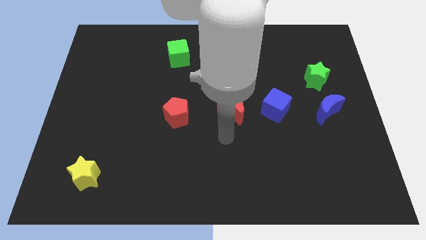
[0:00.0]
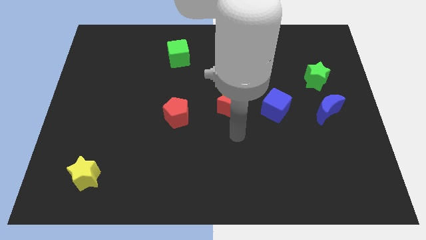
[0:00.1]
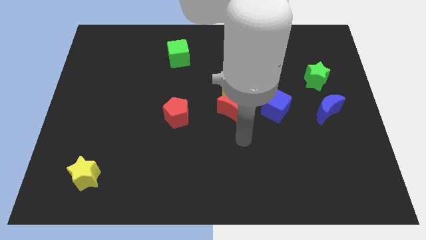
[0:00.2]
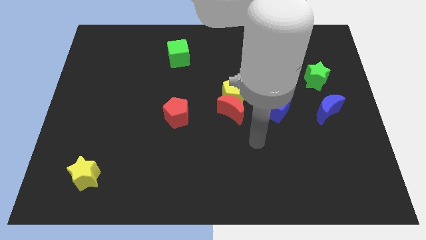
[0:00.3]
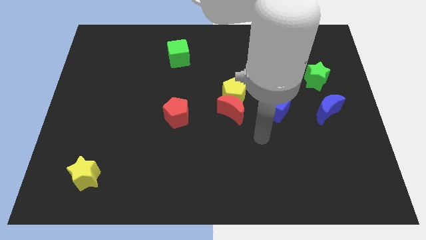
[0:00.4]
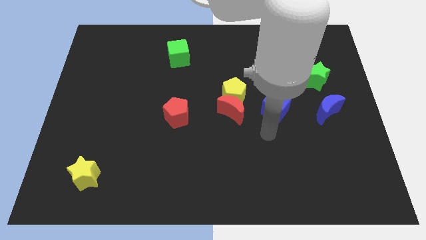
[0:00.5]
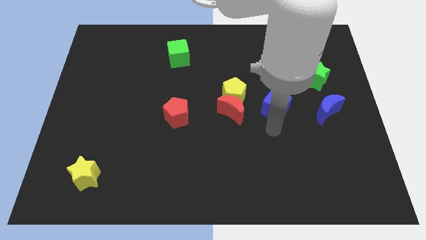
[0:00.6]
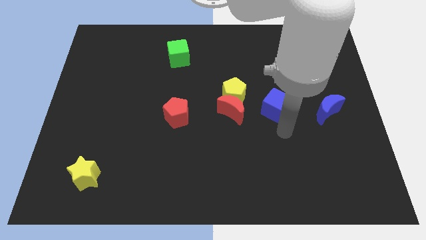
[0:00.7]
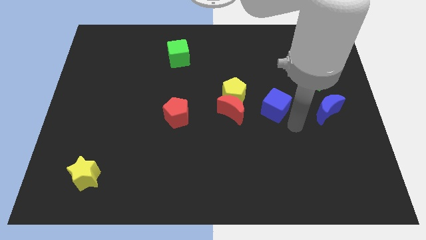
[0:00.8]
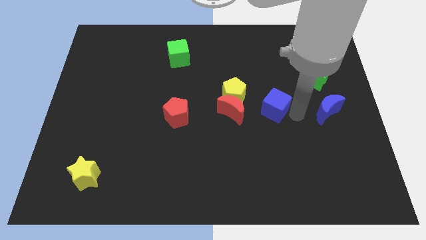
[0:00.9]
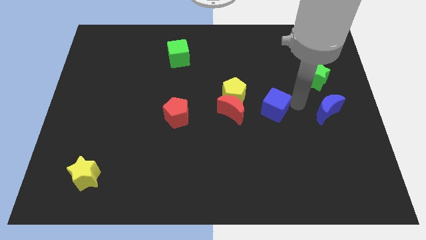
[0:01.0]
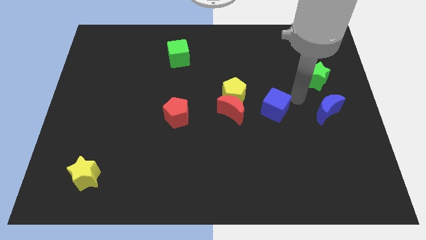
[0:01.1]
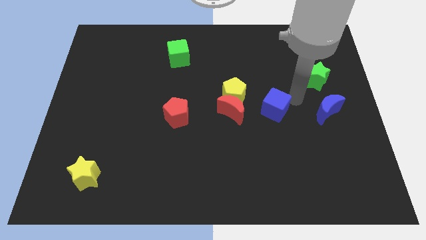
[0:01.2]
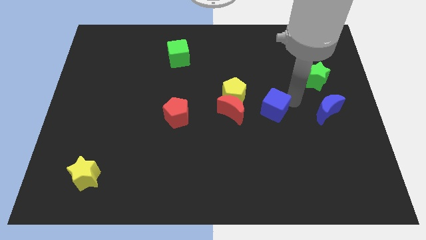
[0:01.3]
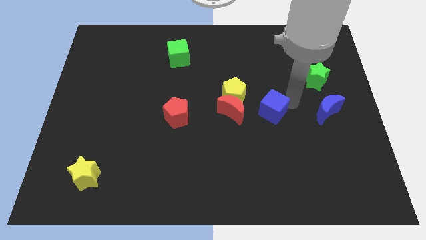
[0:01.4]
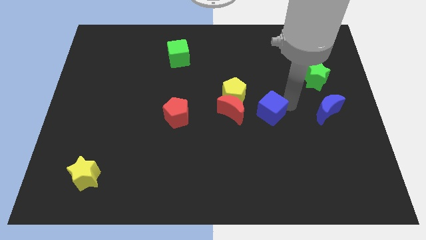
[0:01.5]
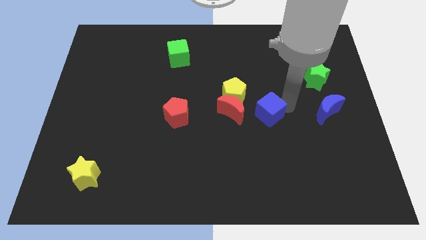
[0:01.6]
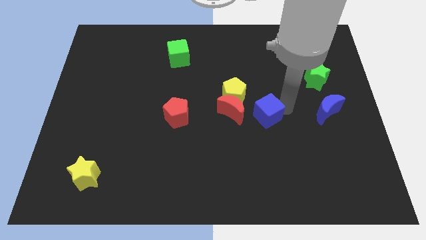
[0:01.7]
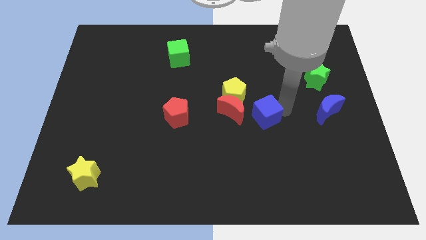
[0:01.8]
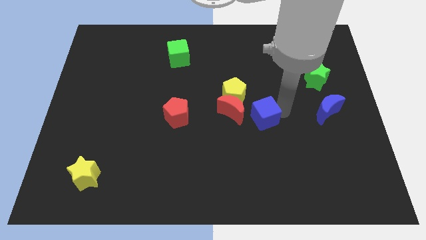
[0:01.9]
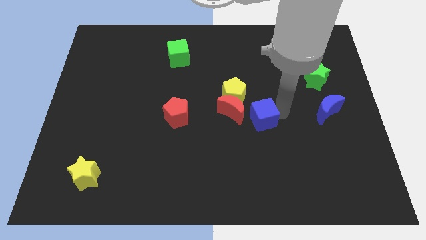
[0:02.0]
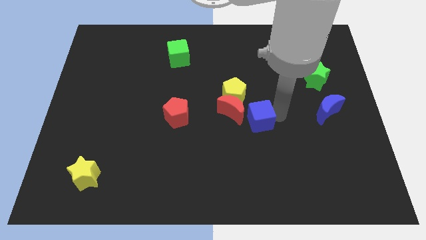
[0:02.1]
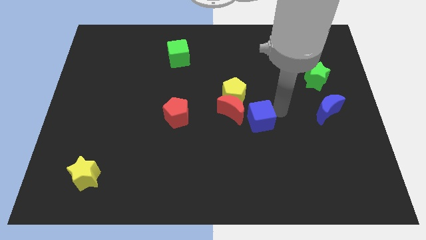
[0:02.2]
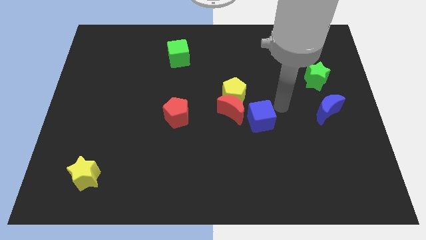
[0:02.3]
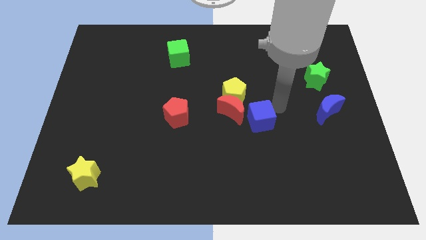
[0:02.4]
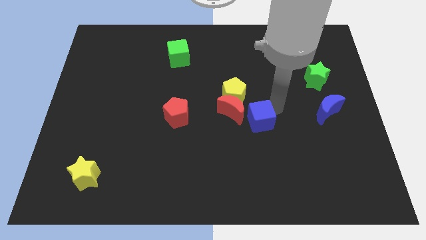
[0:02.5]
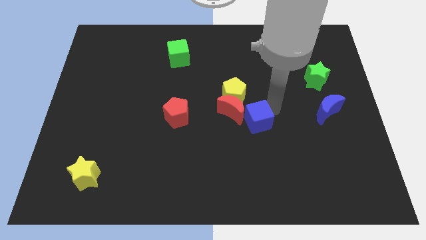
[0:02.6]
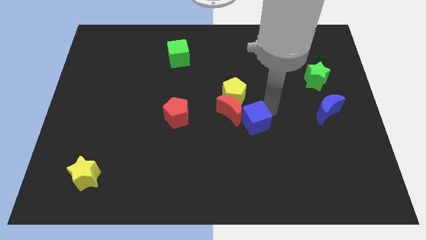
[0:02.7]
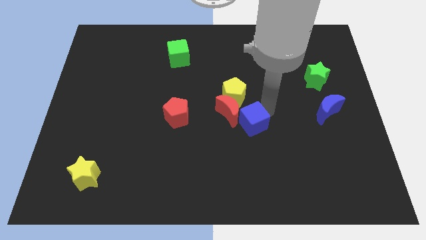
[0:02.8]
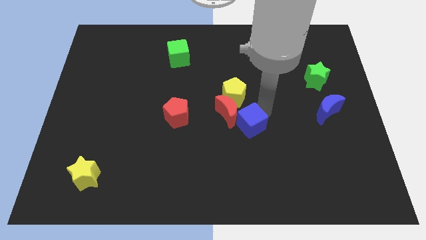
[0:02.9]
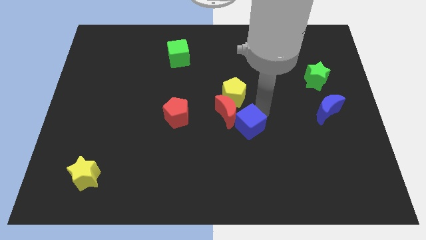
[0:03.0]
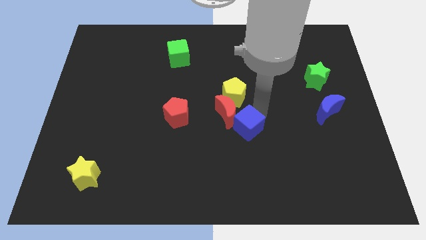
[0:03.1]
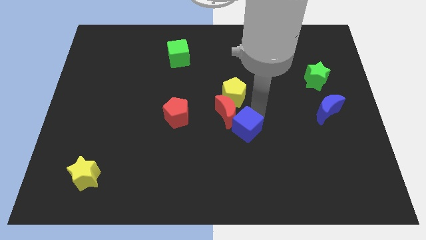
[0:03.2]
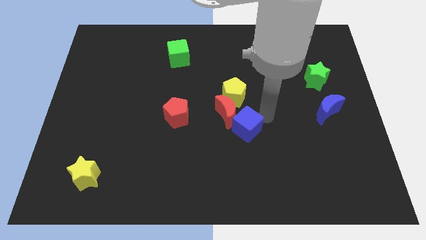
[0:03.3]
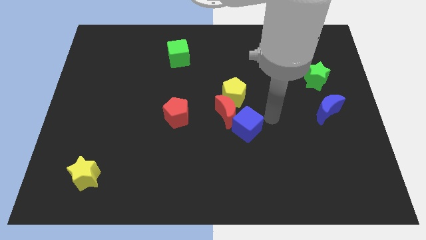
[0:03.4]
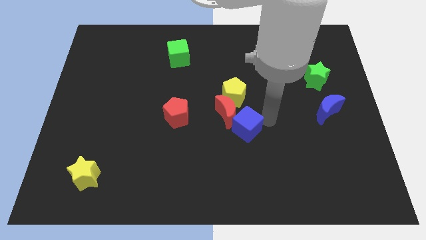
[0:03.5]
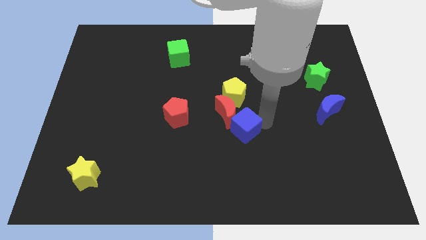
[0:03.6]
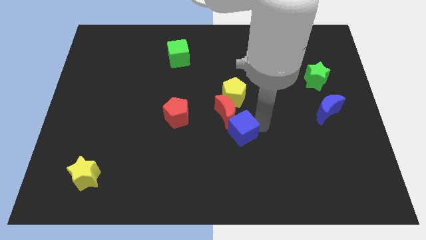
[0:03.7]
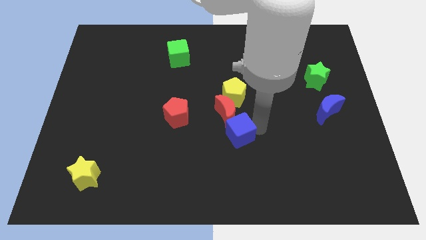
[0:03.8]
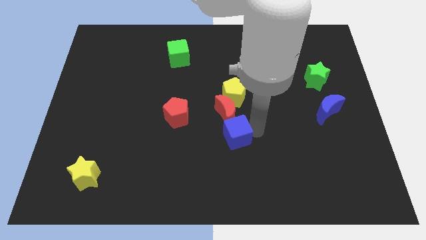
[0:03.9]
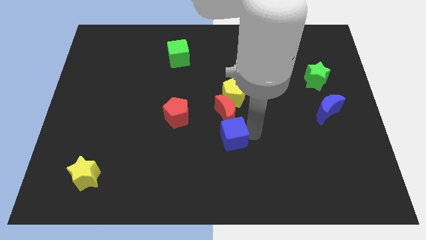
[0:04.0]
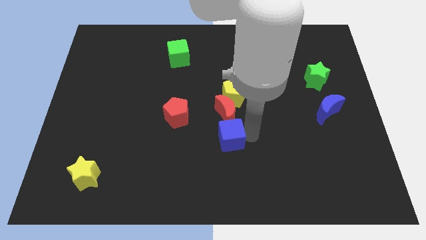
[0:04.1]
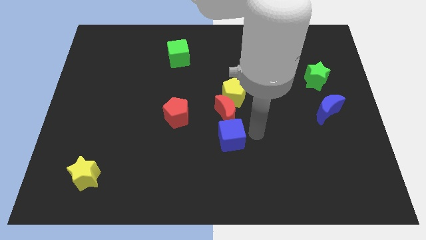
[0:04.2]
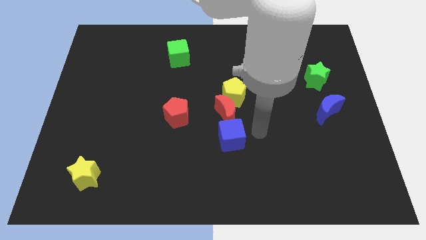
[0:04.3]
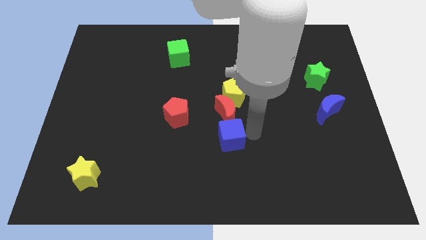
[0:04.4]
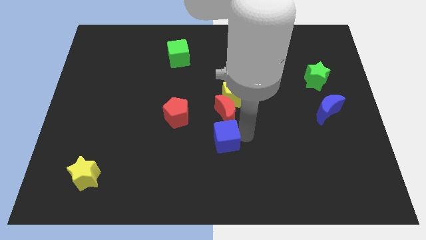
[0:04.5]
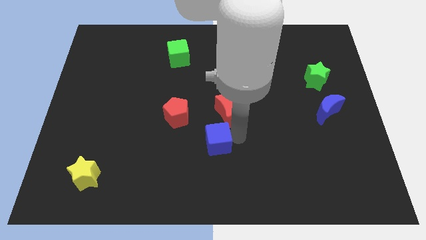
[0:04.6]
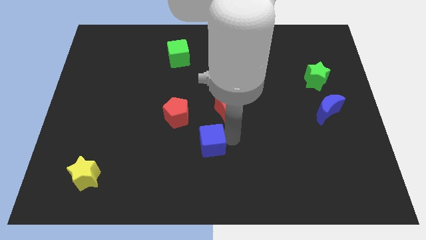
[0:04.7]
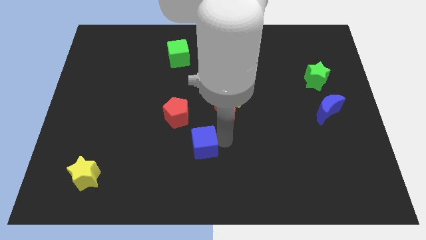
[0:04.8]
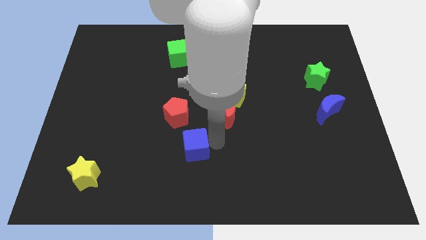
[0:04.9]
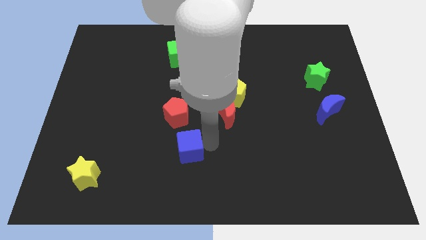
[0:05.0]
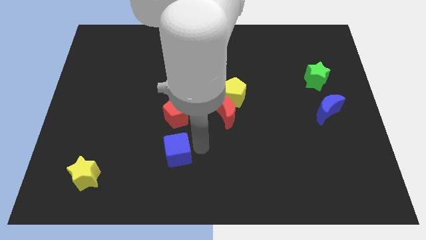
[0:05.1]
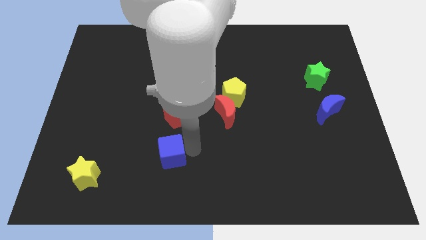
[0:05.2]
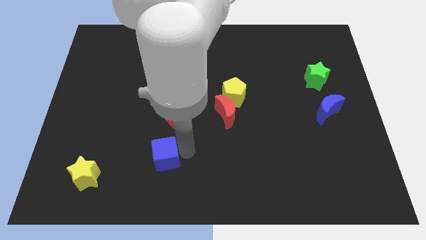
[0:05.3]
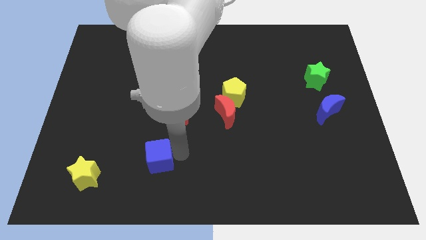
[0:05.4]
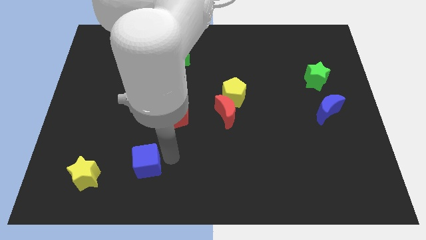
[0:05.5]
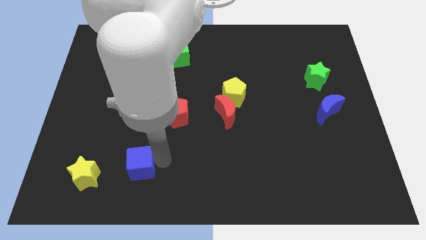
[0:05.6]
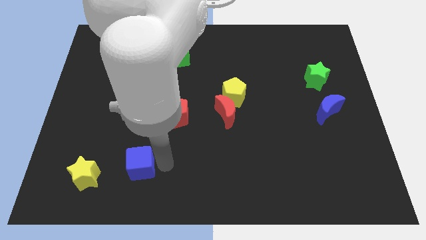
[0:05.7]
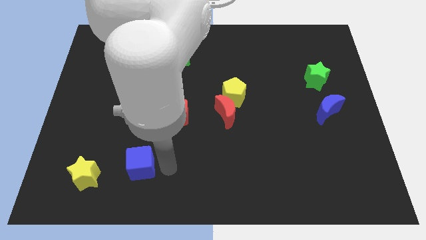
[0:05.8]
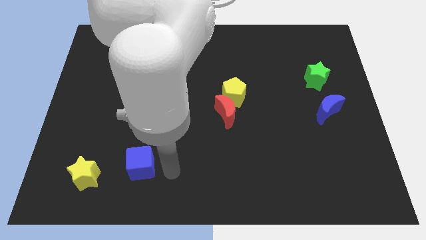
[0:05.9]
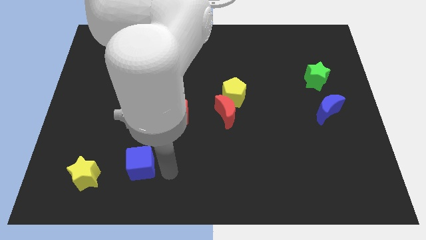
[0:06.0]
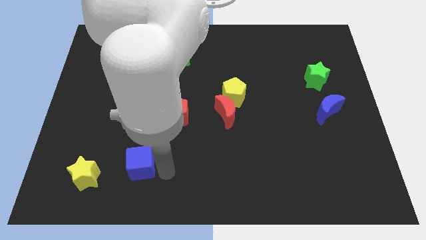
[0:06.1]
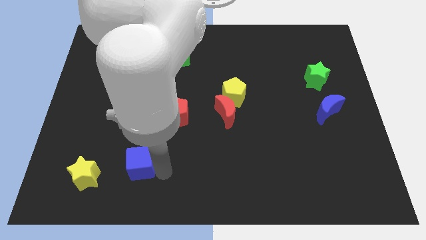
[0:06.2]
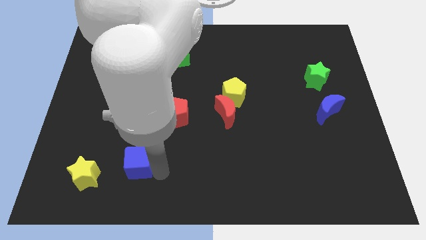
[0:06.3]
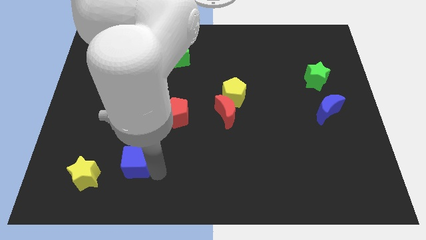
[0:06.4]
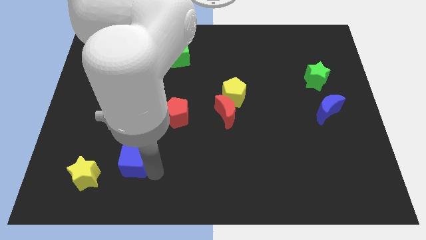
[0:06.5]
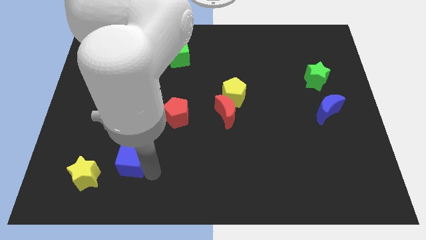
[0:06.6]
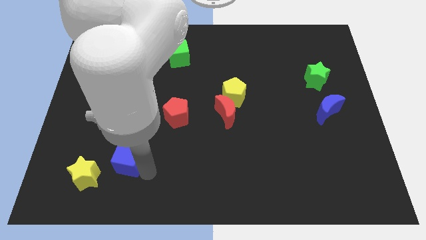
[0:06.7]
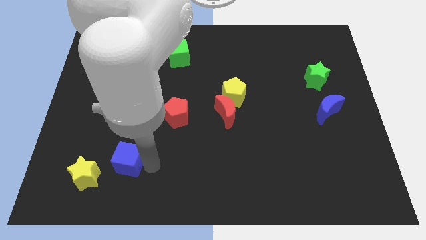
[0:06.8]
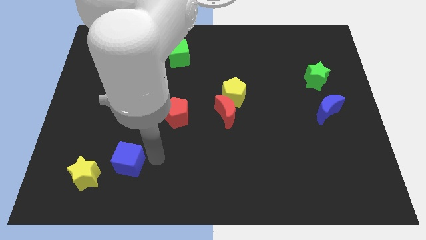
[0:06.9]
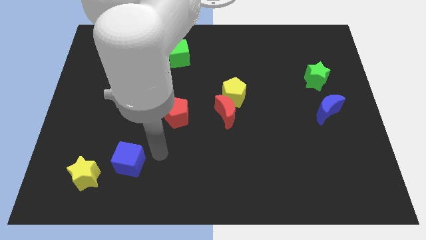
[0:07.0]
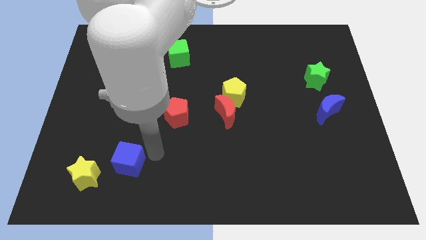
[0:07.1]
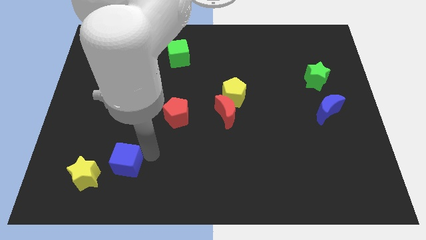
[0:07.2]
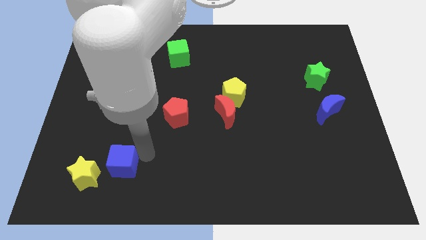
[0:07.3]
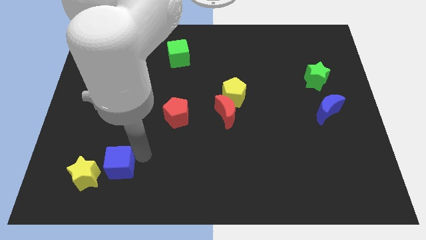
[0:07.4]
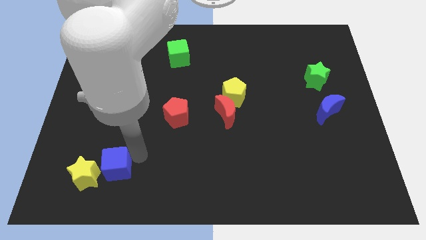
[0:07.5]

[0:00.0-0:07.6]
slide the blue cube next to the yellow star

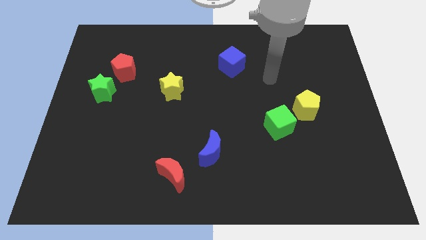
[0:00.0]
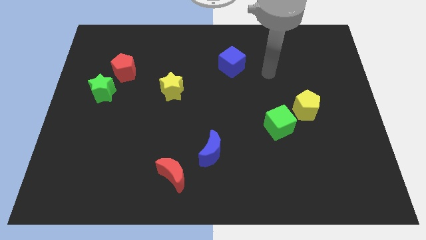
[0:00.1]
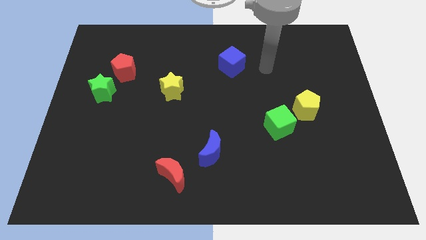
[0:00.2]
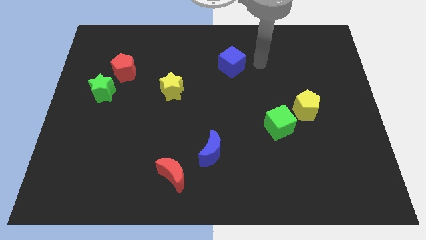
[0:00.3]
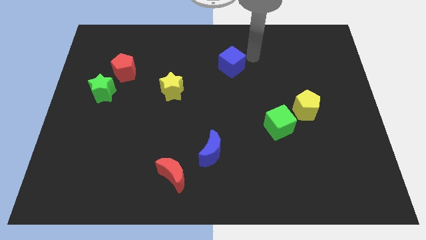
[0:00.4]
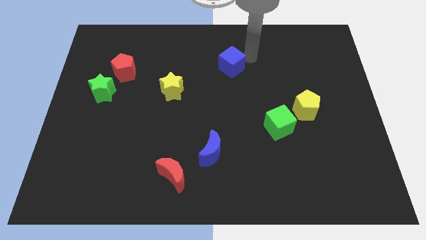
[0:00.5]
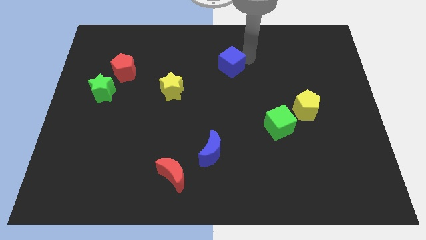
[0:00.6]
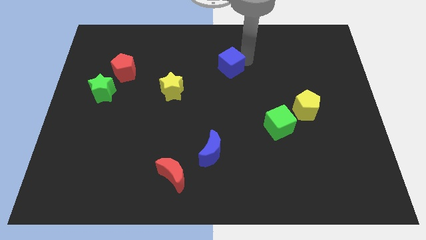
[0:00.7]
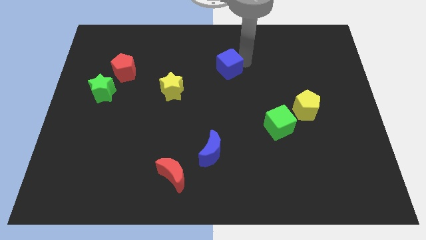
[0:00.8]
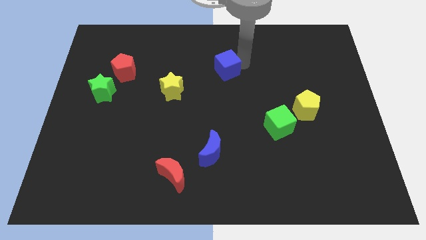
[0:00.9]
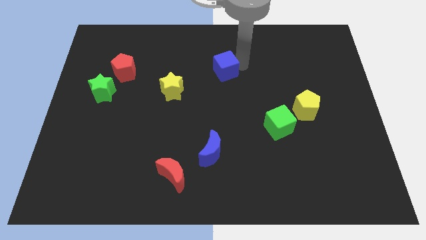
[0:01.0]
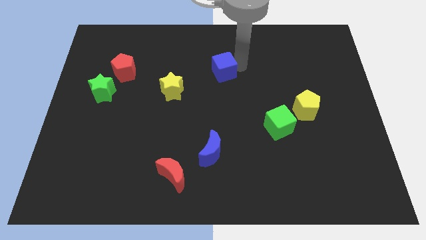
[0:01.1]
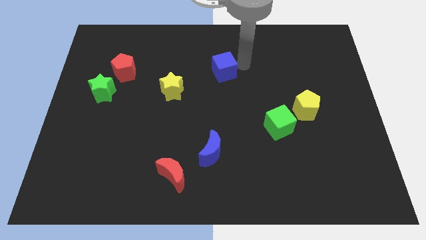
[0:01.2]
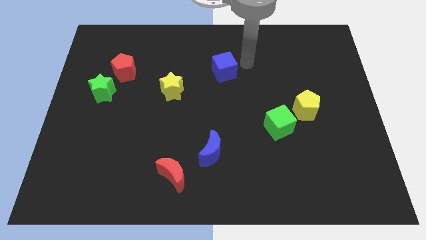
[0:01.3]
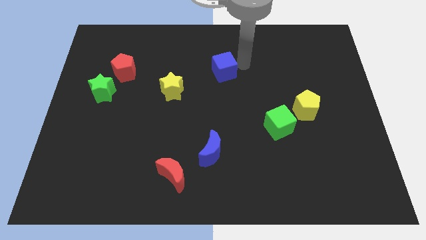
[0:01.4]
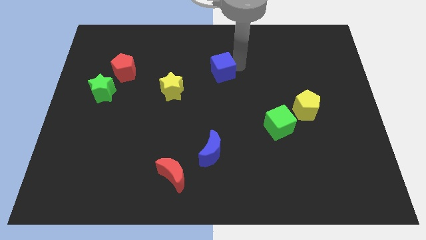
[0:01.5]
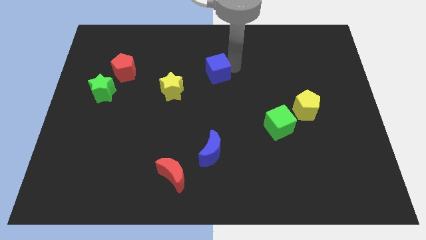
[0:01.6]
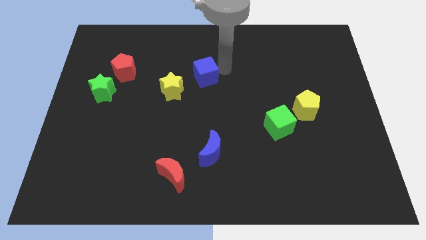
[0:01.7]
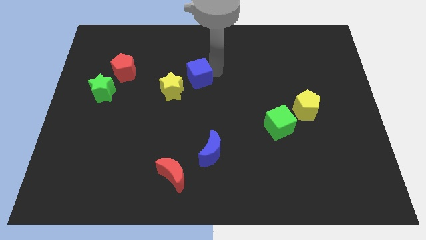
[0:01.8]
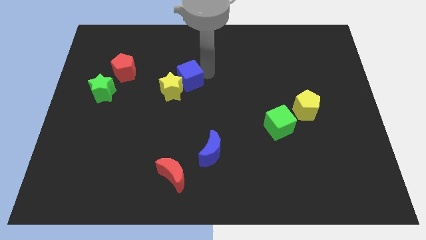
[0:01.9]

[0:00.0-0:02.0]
push the blue cube to the yellow star
